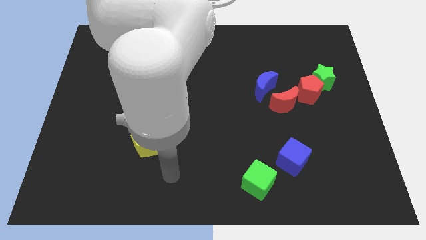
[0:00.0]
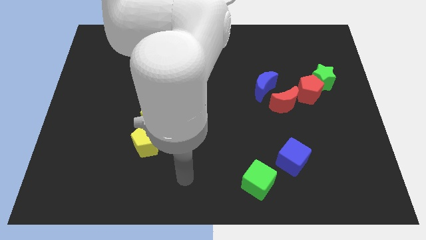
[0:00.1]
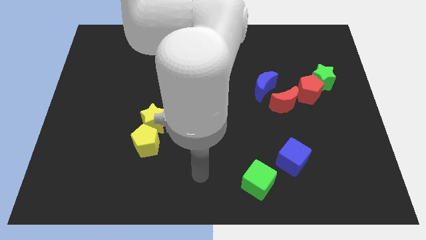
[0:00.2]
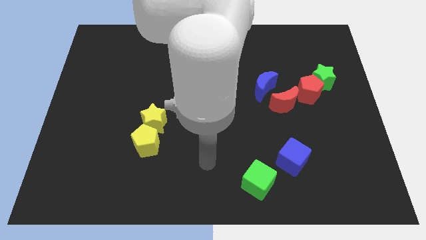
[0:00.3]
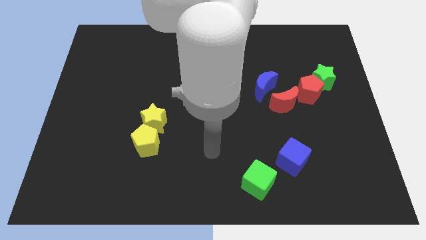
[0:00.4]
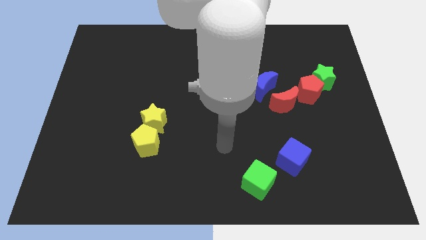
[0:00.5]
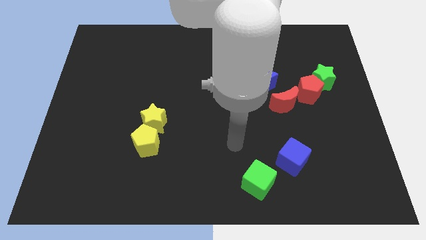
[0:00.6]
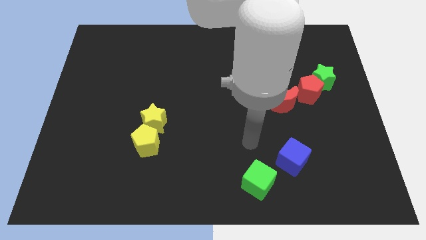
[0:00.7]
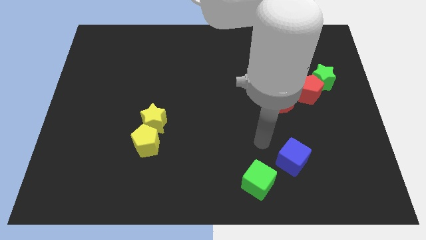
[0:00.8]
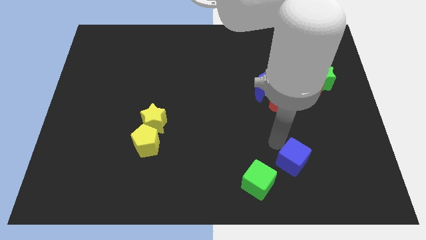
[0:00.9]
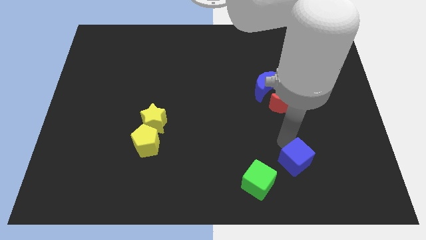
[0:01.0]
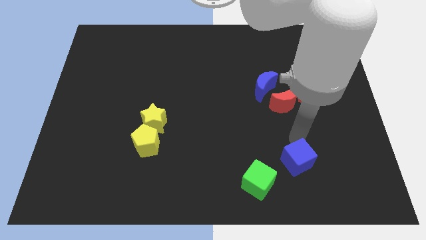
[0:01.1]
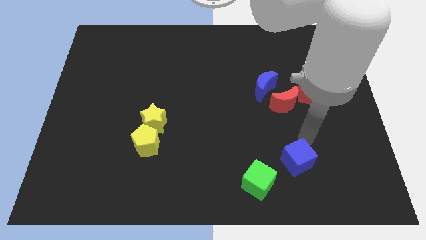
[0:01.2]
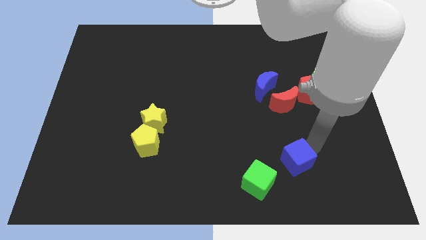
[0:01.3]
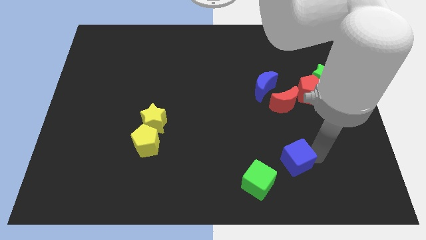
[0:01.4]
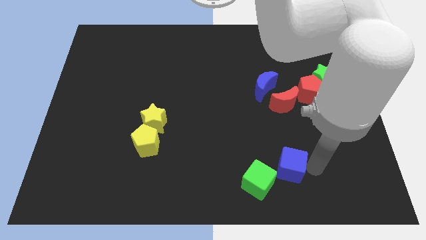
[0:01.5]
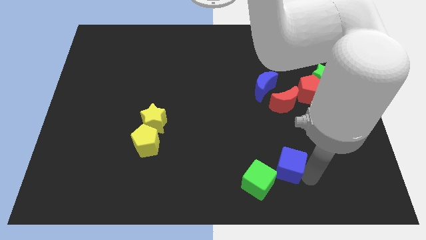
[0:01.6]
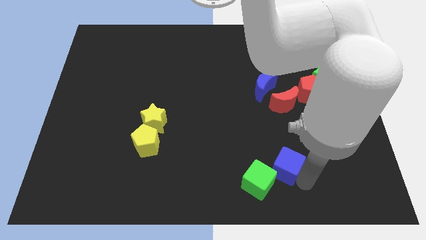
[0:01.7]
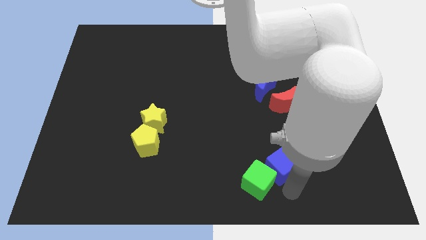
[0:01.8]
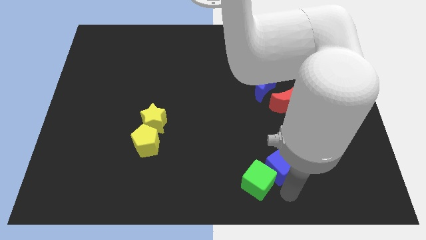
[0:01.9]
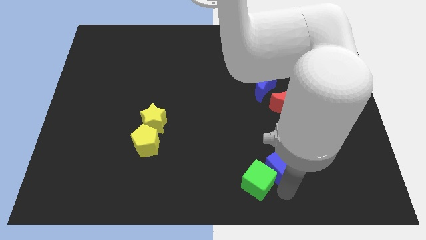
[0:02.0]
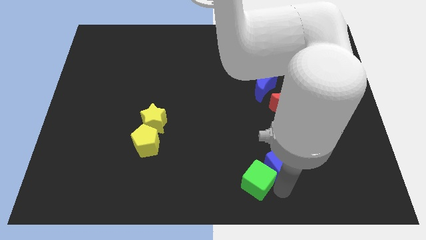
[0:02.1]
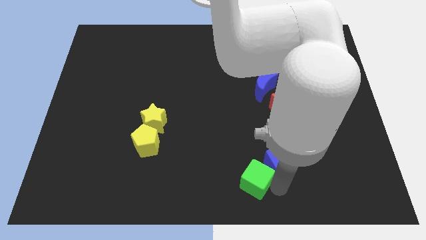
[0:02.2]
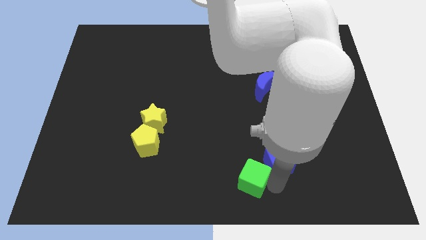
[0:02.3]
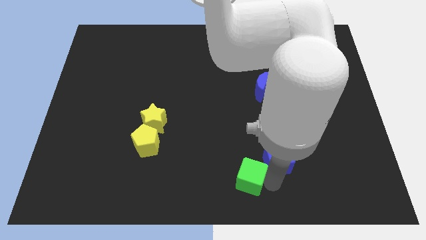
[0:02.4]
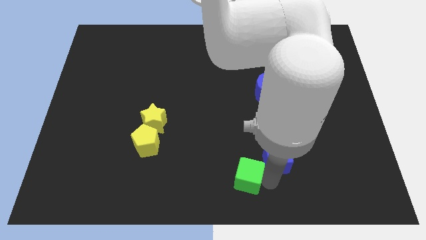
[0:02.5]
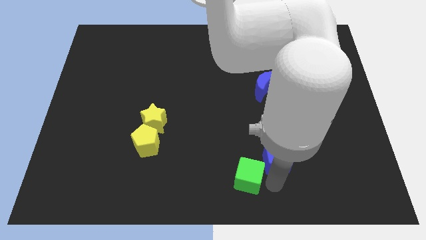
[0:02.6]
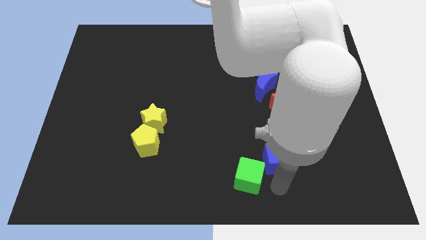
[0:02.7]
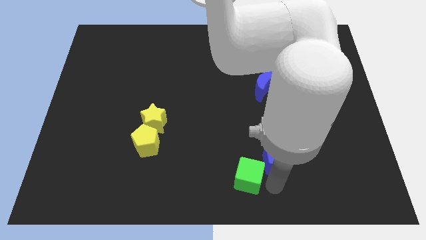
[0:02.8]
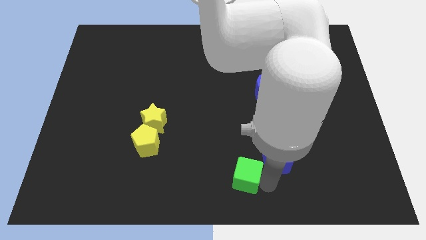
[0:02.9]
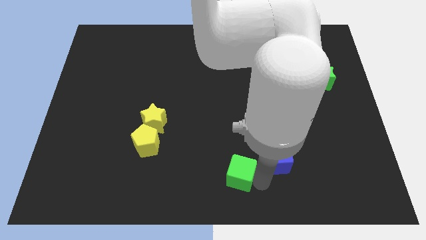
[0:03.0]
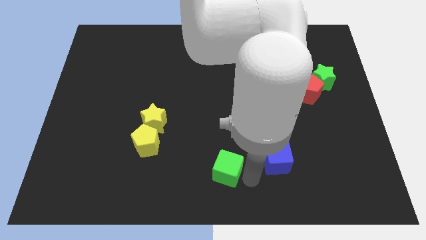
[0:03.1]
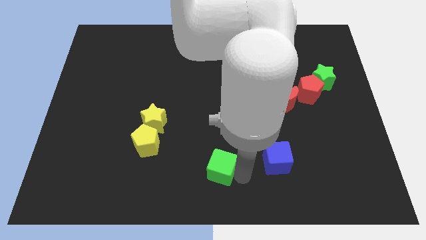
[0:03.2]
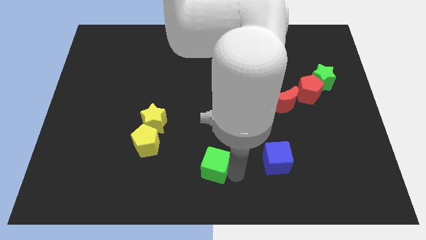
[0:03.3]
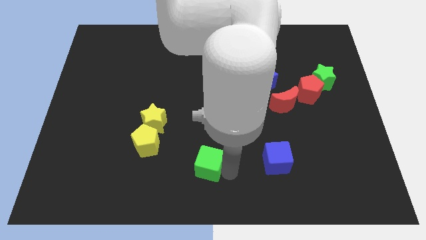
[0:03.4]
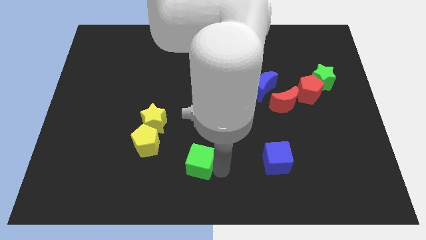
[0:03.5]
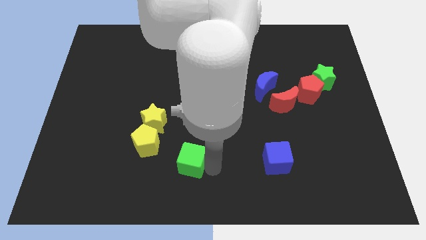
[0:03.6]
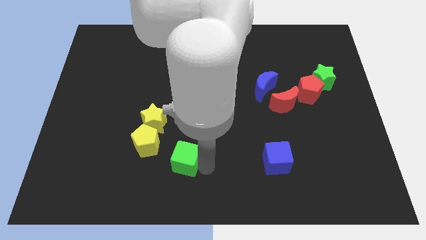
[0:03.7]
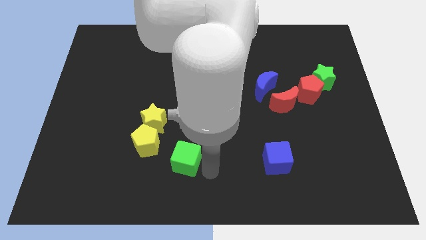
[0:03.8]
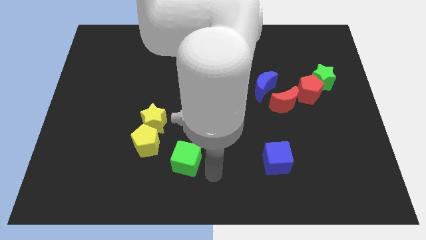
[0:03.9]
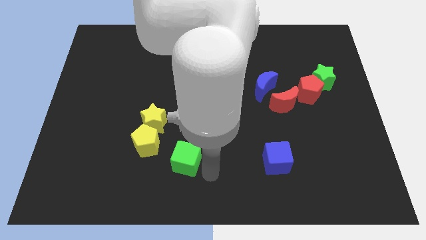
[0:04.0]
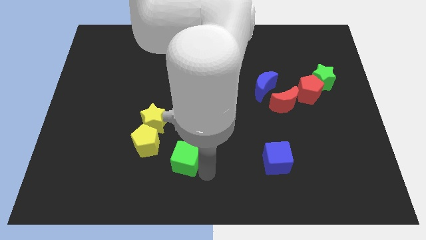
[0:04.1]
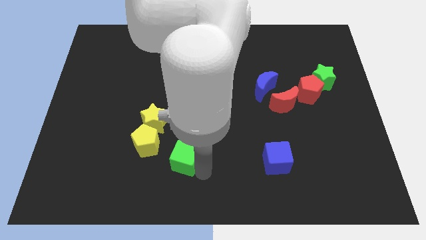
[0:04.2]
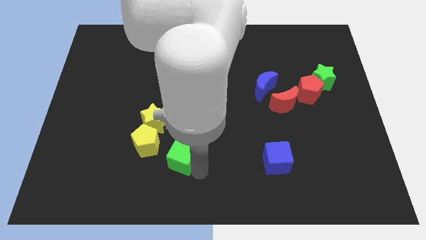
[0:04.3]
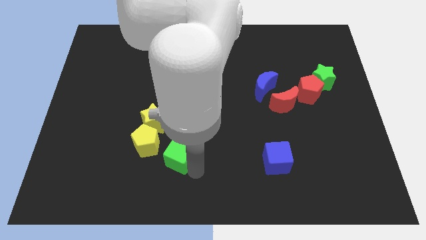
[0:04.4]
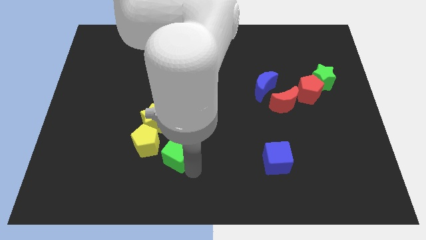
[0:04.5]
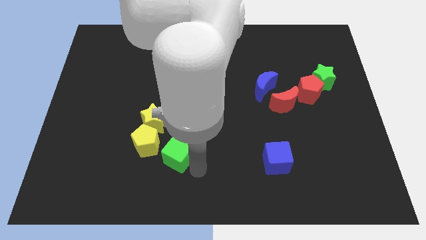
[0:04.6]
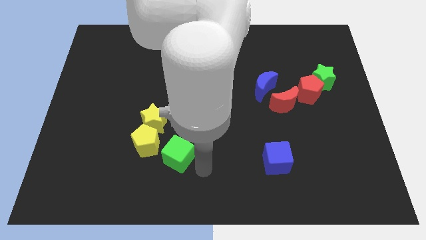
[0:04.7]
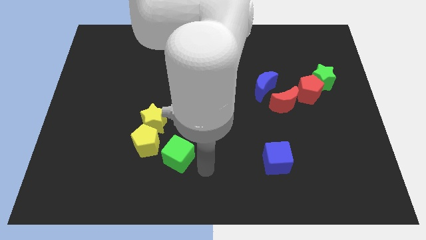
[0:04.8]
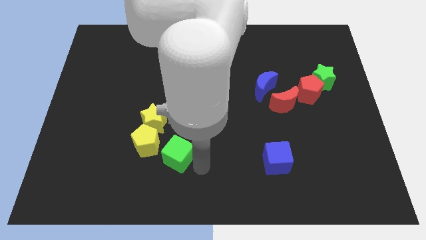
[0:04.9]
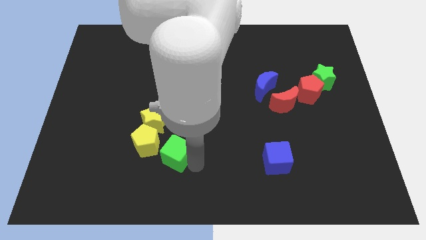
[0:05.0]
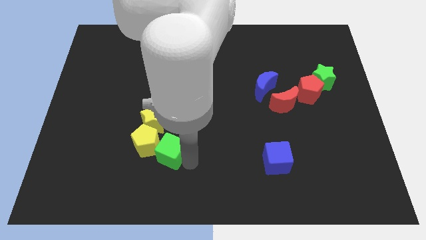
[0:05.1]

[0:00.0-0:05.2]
slide the green cube towards the yellow pentagon
